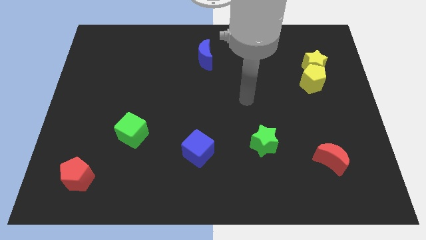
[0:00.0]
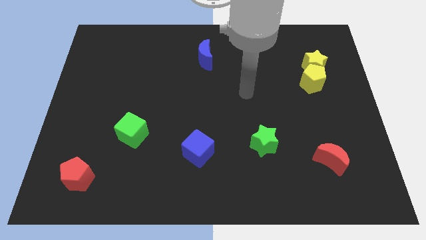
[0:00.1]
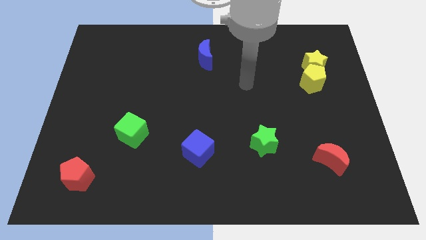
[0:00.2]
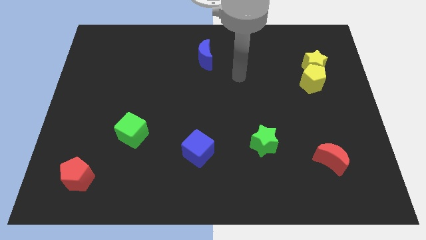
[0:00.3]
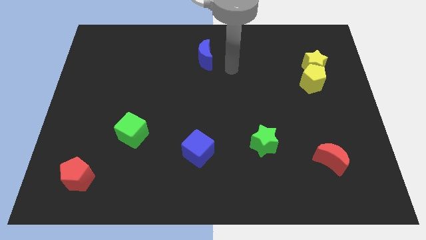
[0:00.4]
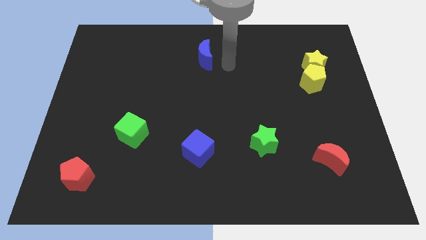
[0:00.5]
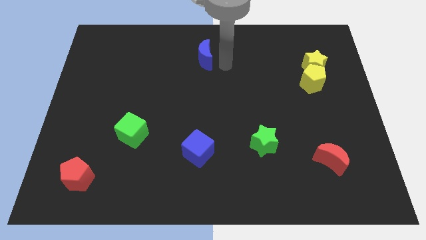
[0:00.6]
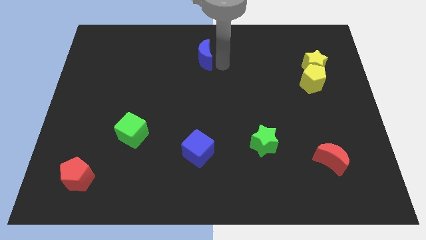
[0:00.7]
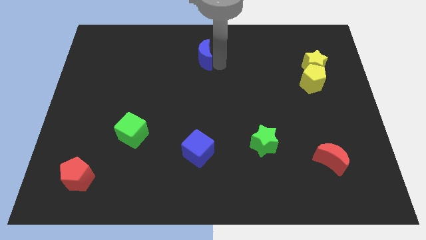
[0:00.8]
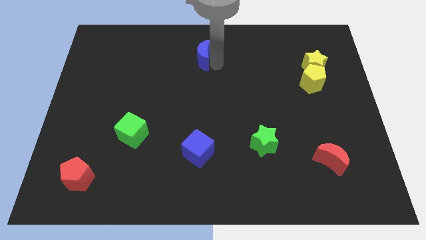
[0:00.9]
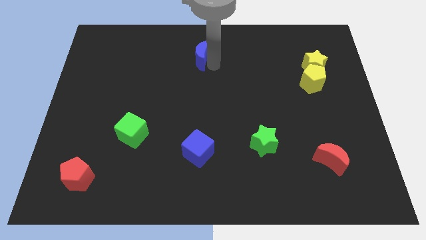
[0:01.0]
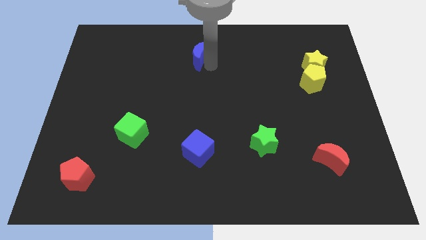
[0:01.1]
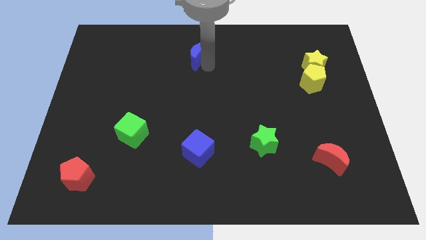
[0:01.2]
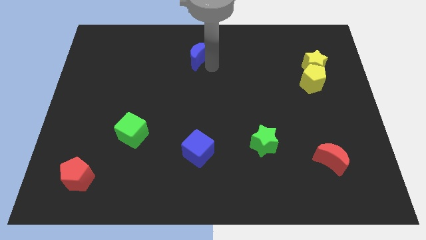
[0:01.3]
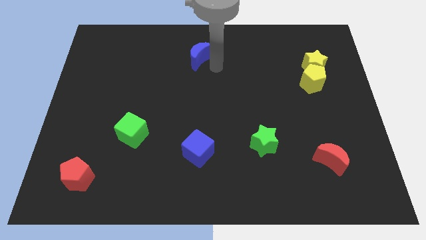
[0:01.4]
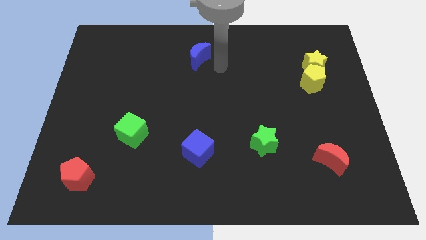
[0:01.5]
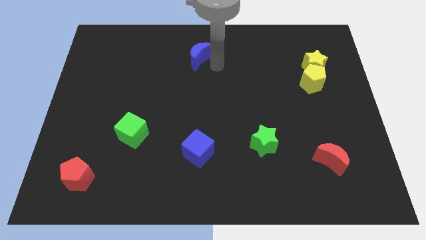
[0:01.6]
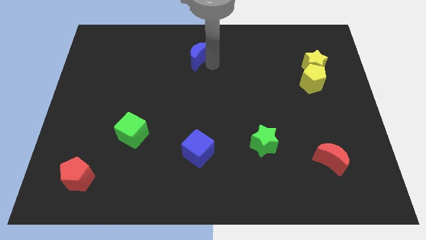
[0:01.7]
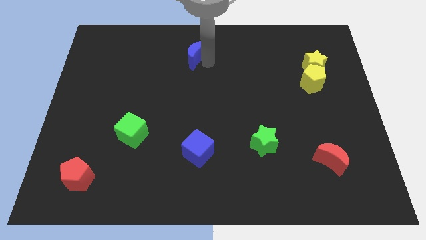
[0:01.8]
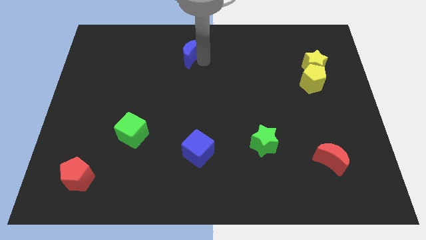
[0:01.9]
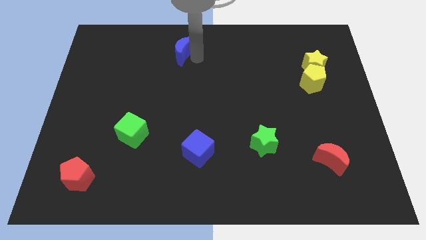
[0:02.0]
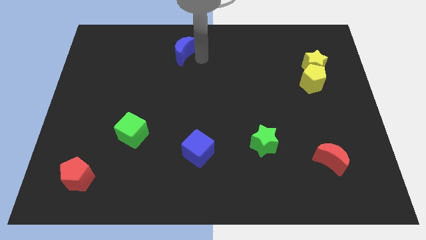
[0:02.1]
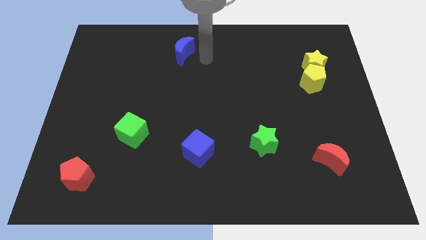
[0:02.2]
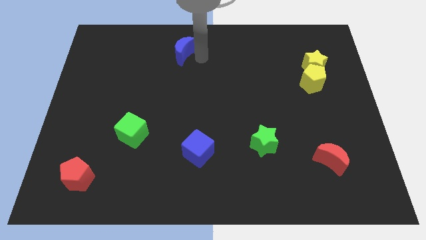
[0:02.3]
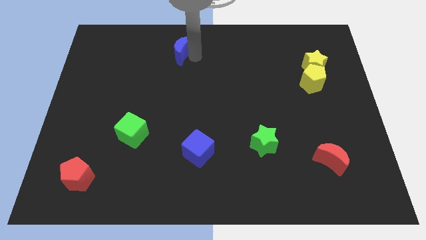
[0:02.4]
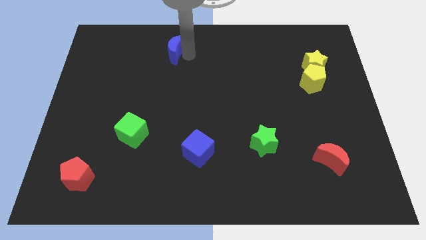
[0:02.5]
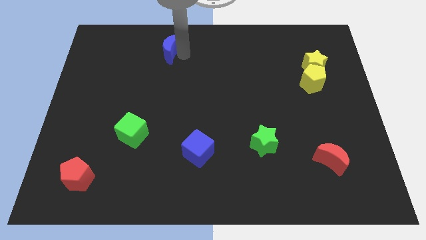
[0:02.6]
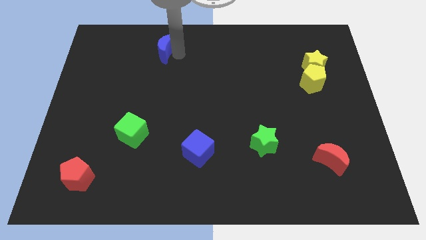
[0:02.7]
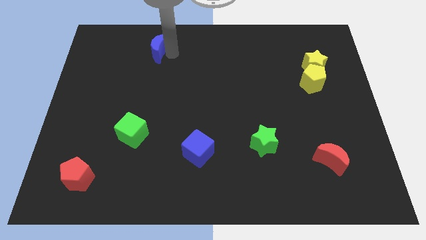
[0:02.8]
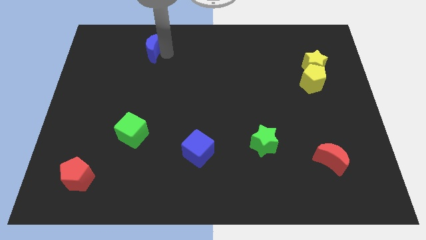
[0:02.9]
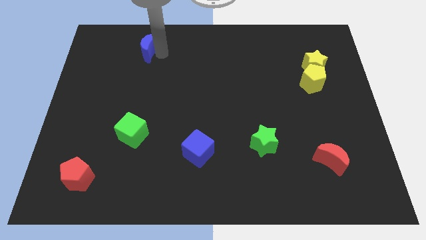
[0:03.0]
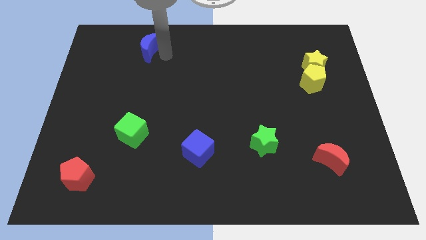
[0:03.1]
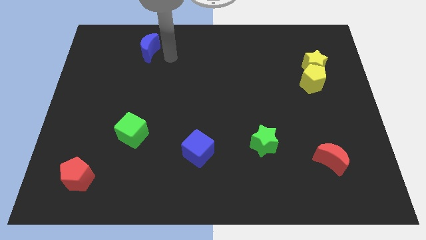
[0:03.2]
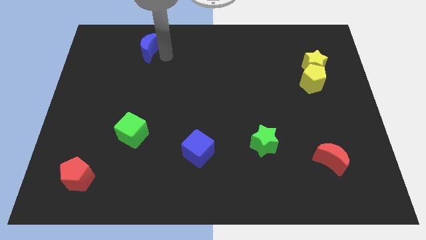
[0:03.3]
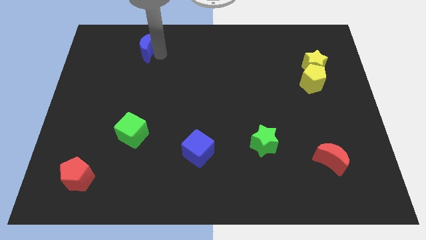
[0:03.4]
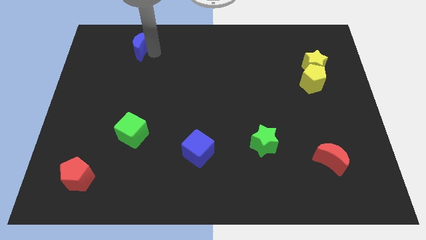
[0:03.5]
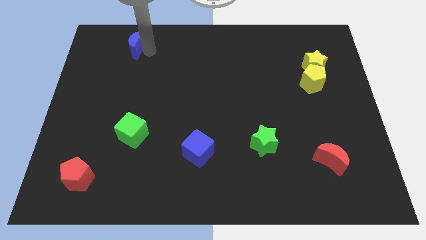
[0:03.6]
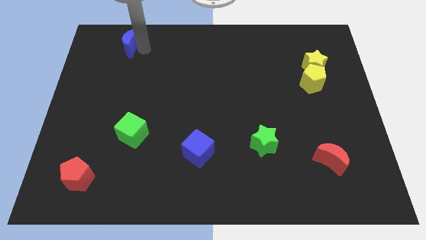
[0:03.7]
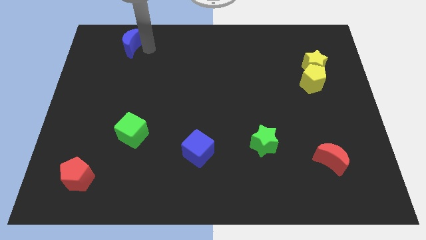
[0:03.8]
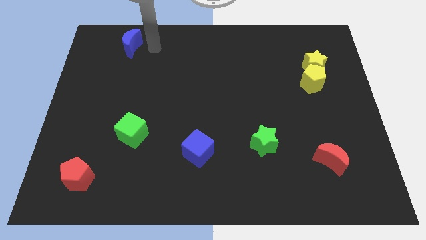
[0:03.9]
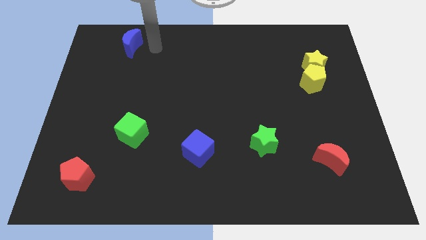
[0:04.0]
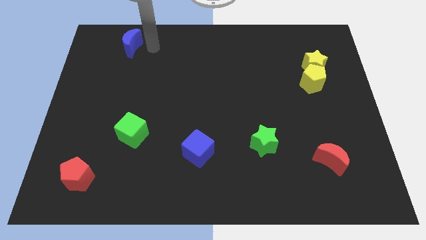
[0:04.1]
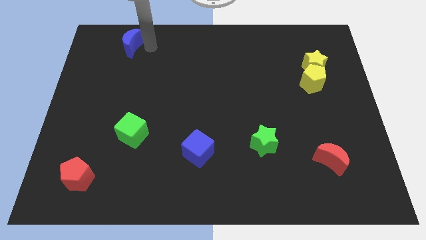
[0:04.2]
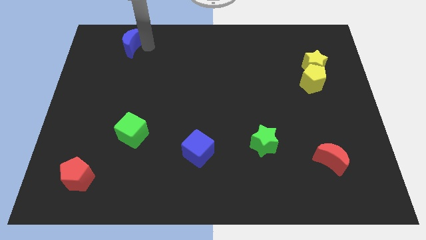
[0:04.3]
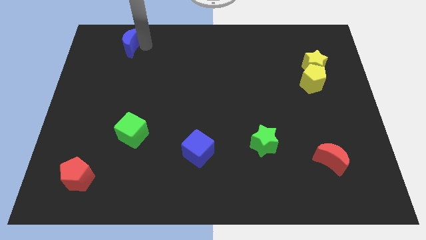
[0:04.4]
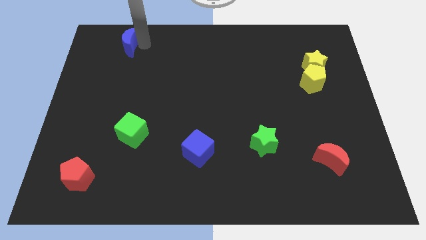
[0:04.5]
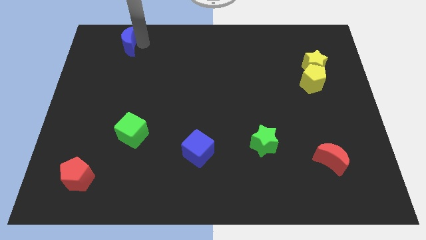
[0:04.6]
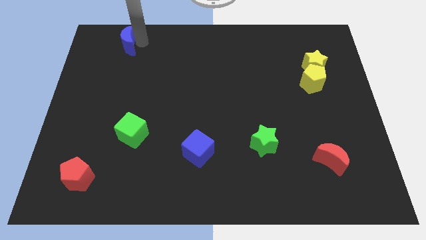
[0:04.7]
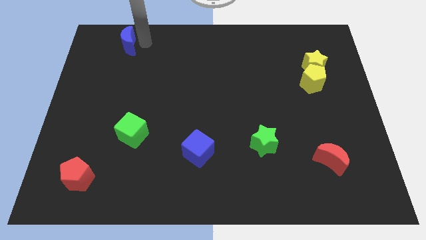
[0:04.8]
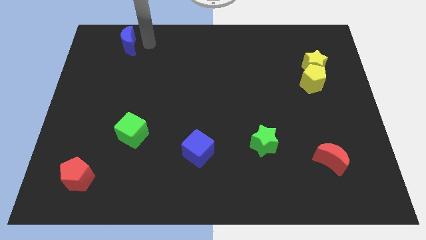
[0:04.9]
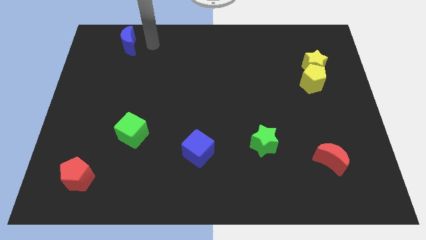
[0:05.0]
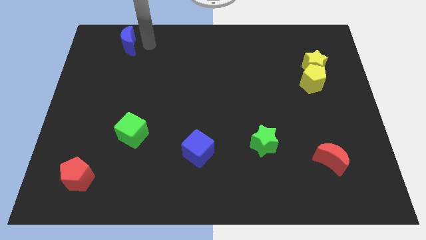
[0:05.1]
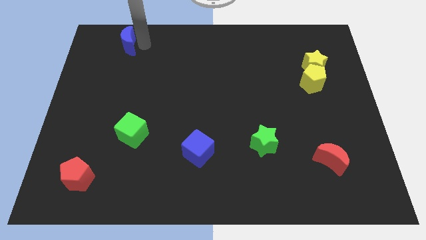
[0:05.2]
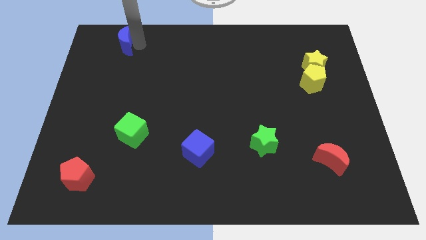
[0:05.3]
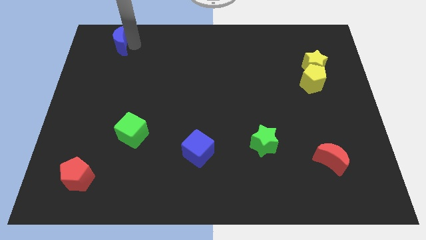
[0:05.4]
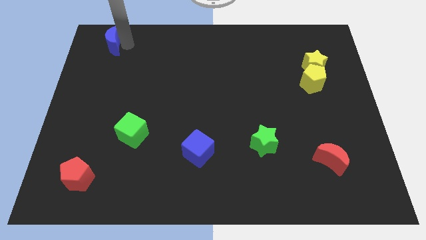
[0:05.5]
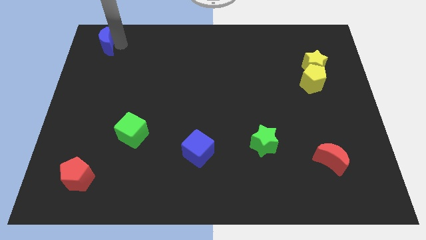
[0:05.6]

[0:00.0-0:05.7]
put the blue moon to the top left

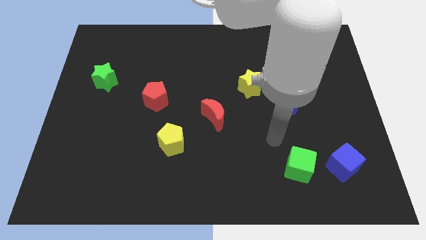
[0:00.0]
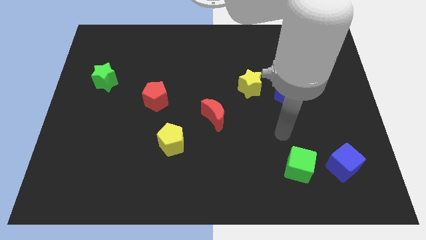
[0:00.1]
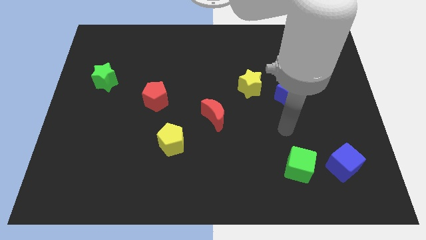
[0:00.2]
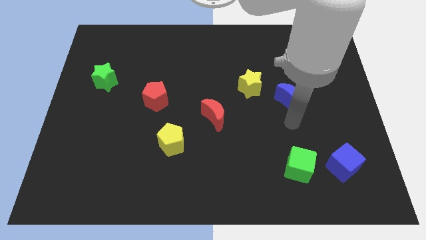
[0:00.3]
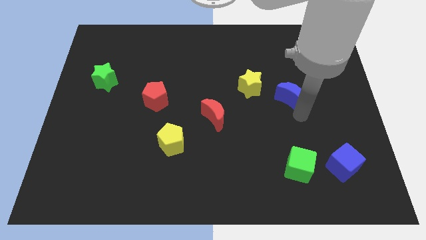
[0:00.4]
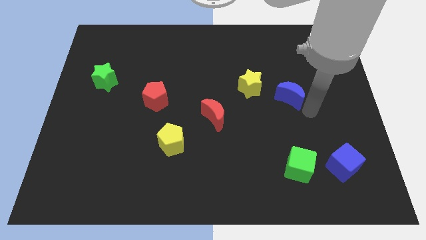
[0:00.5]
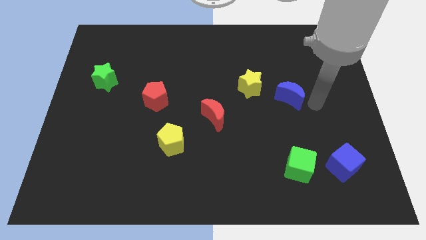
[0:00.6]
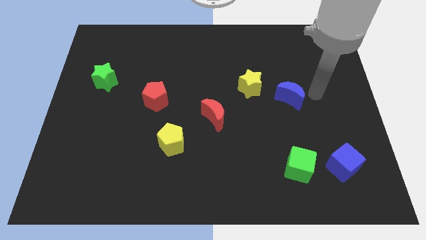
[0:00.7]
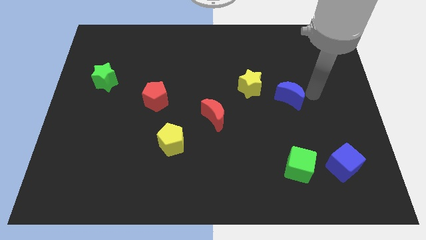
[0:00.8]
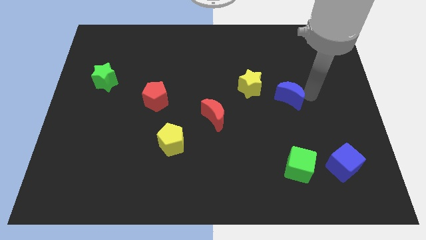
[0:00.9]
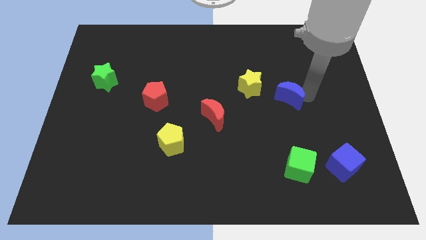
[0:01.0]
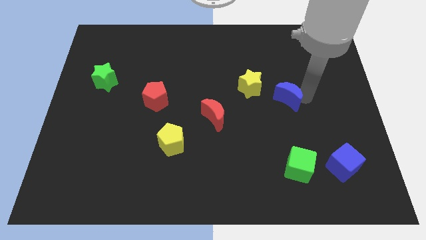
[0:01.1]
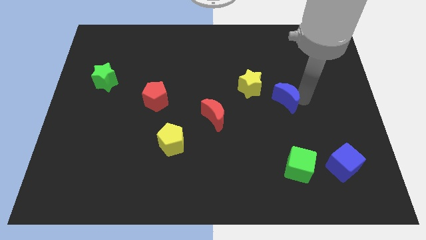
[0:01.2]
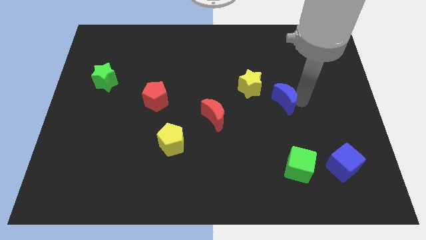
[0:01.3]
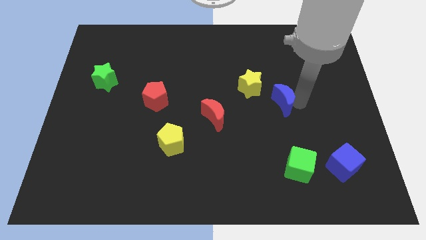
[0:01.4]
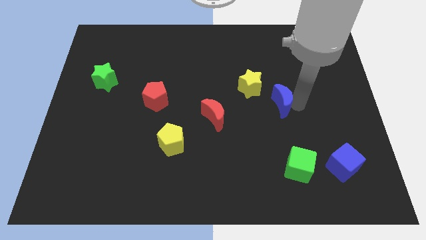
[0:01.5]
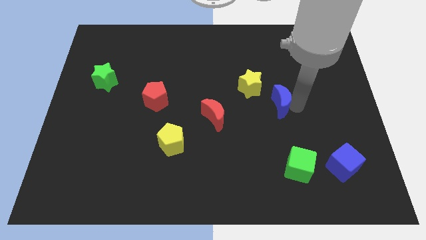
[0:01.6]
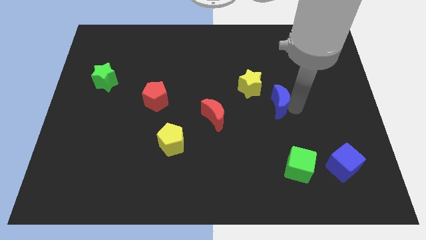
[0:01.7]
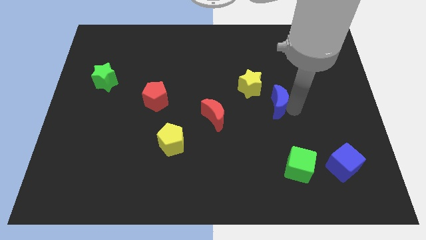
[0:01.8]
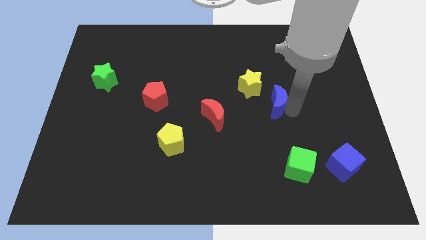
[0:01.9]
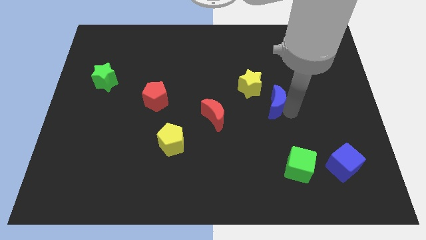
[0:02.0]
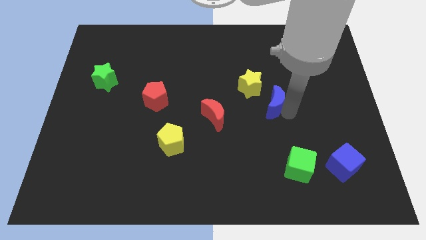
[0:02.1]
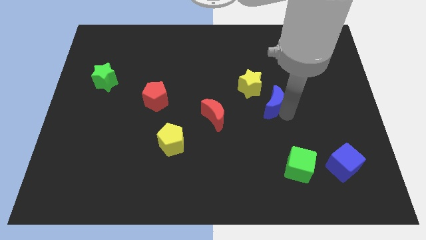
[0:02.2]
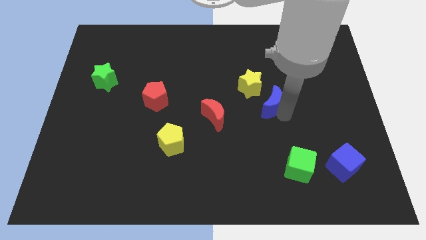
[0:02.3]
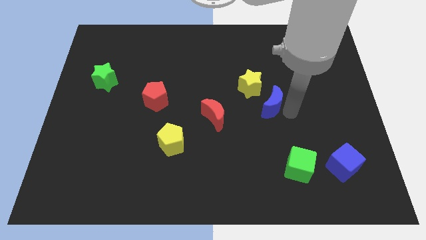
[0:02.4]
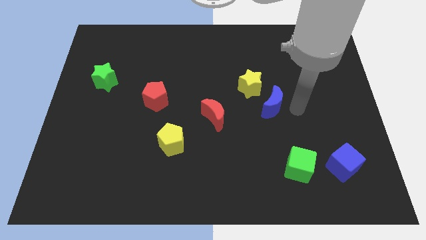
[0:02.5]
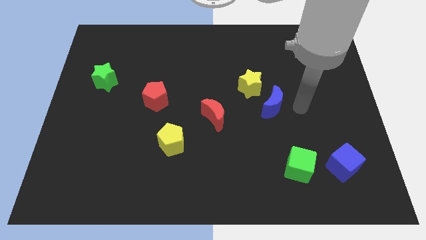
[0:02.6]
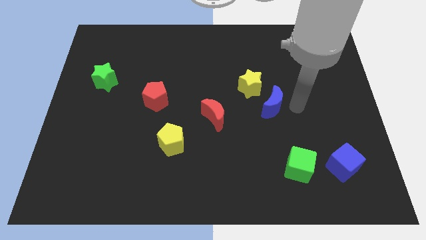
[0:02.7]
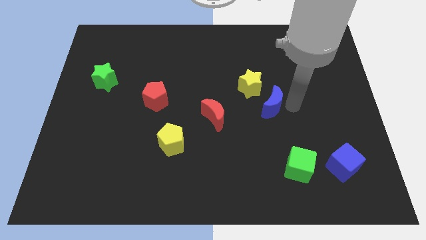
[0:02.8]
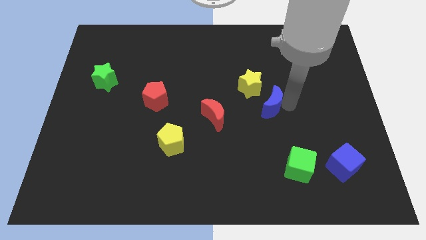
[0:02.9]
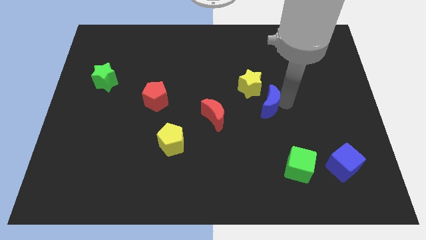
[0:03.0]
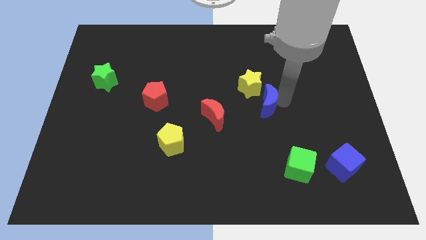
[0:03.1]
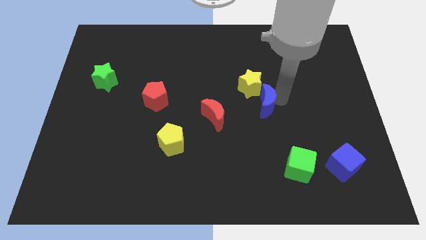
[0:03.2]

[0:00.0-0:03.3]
put the blue moon to the middle of the board
